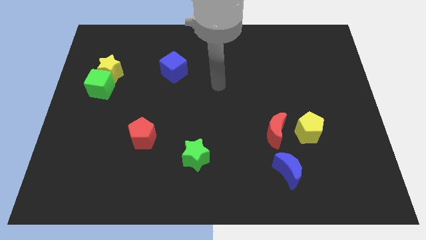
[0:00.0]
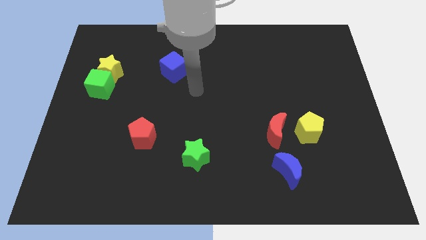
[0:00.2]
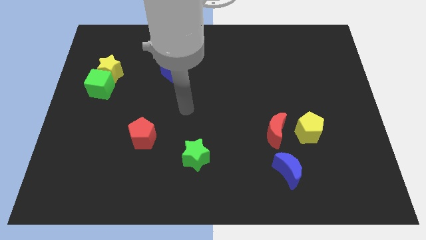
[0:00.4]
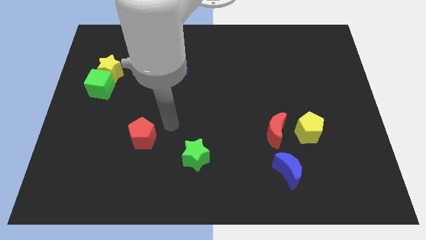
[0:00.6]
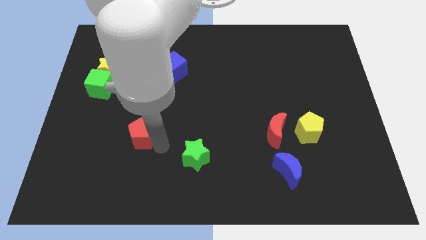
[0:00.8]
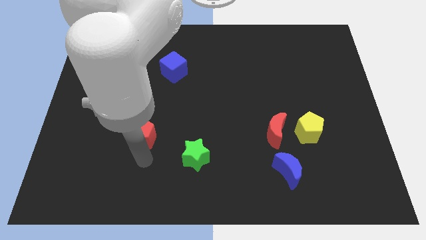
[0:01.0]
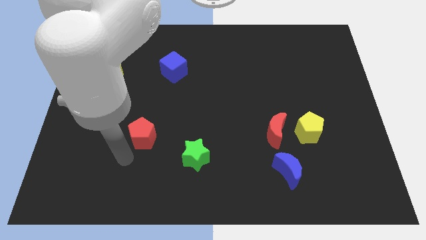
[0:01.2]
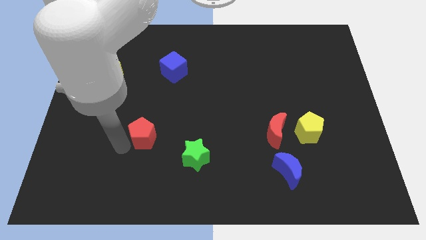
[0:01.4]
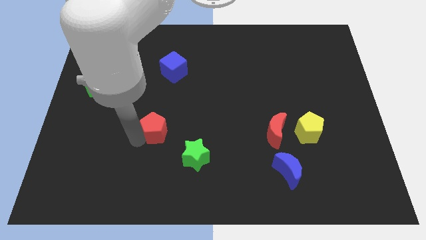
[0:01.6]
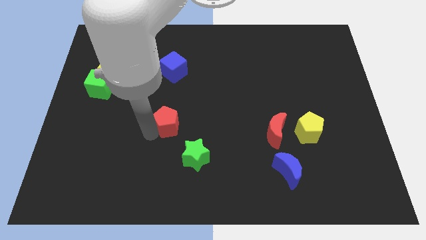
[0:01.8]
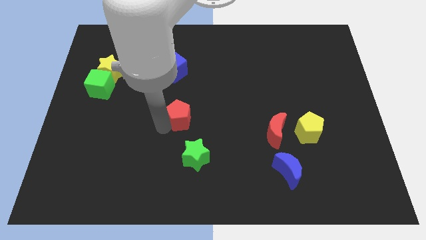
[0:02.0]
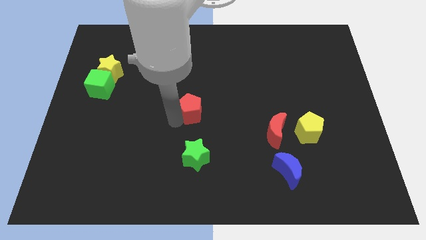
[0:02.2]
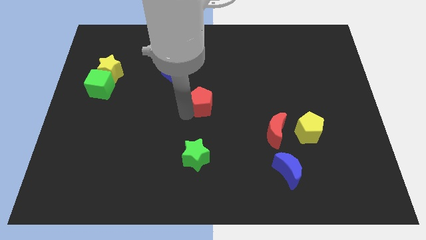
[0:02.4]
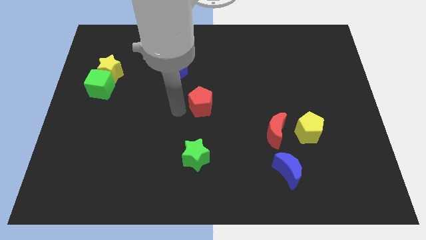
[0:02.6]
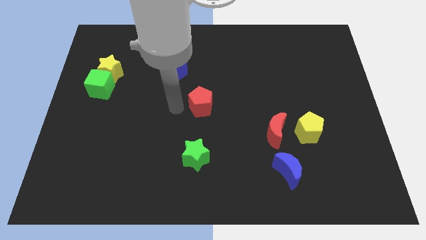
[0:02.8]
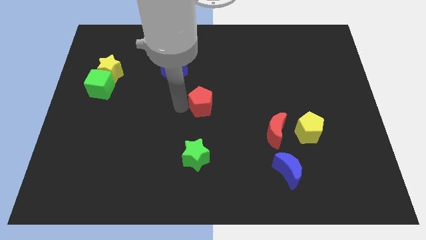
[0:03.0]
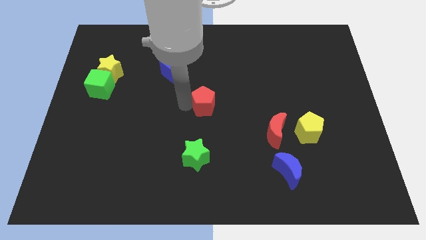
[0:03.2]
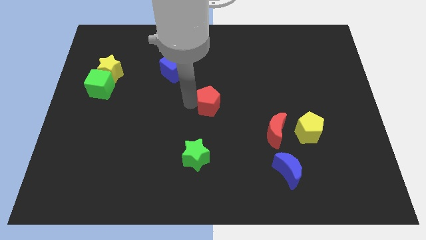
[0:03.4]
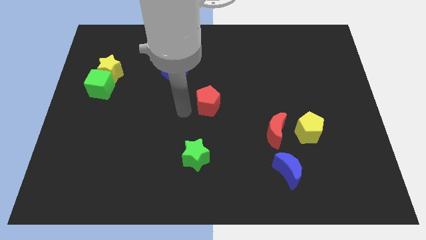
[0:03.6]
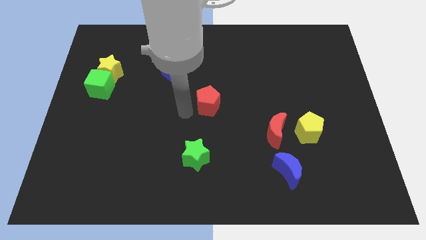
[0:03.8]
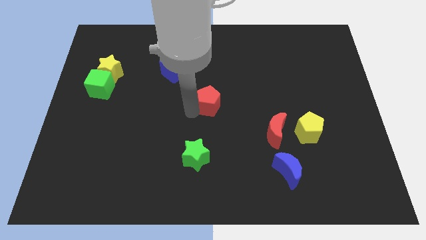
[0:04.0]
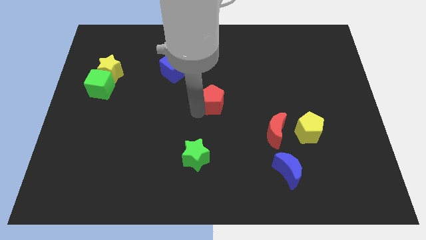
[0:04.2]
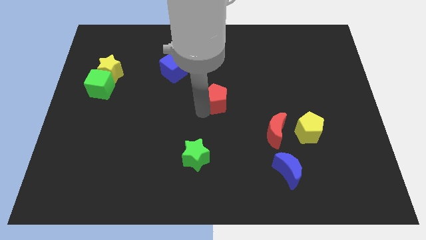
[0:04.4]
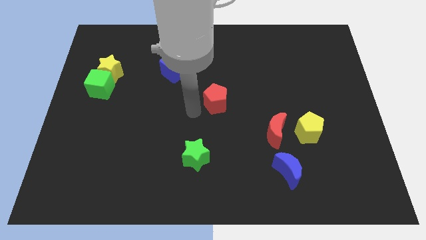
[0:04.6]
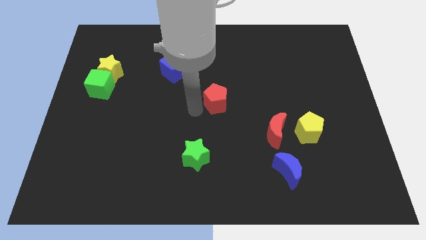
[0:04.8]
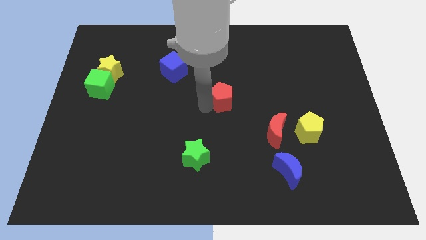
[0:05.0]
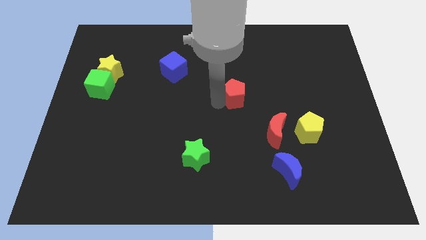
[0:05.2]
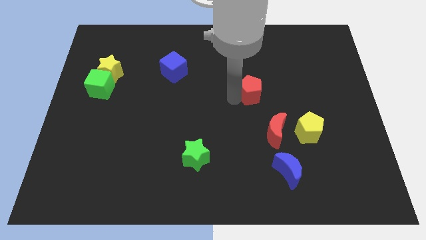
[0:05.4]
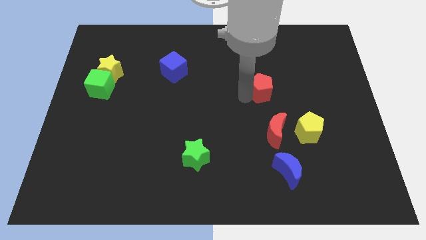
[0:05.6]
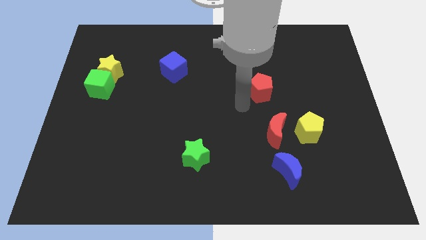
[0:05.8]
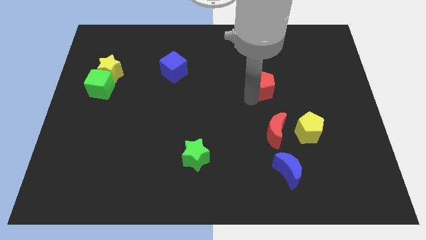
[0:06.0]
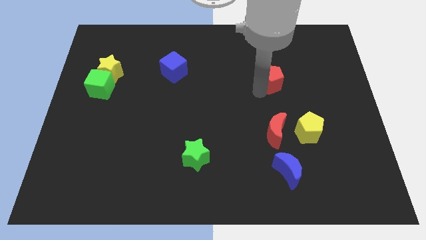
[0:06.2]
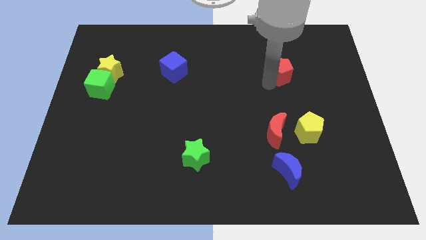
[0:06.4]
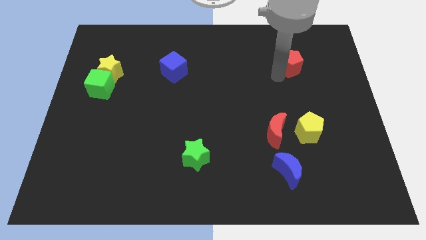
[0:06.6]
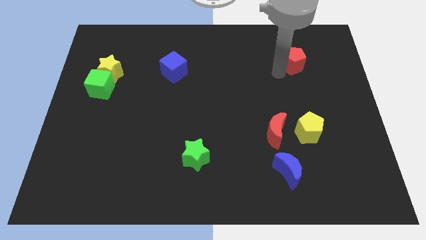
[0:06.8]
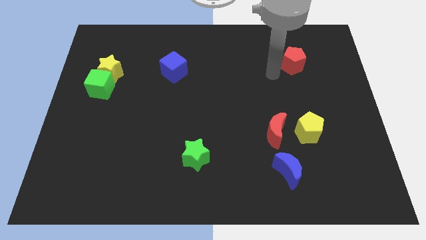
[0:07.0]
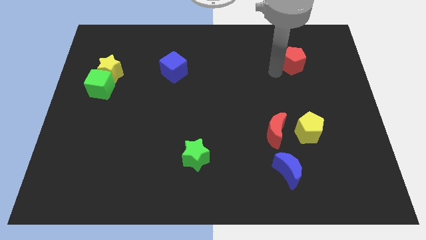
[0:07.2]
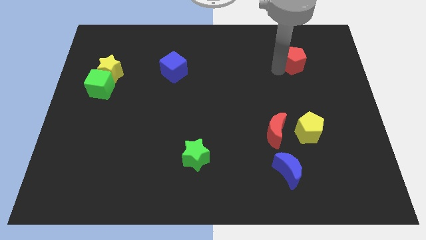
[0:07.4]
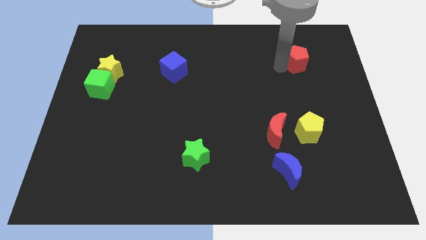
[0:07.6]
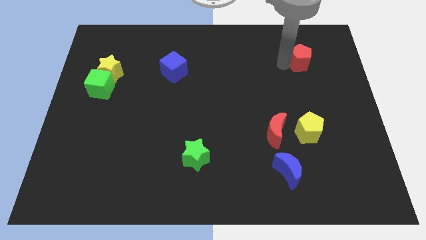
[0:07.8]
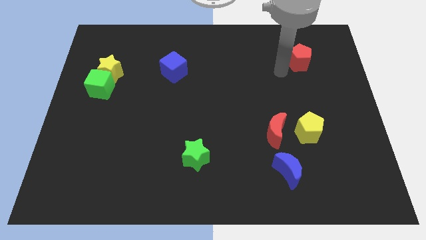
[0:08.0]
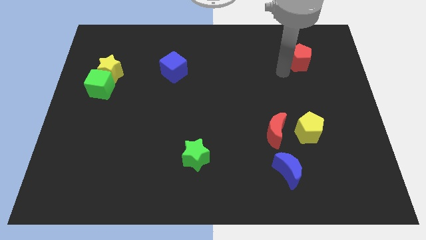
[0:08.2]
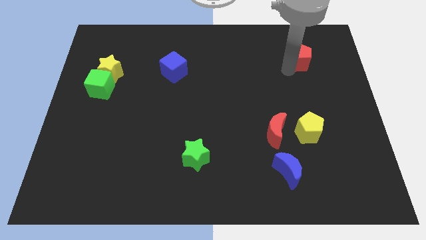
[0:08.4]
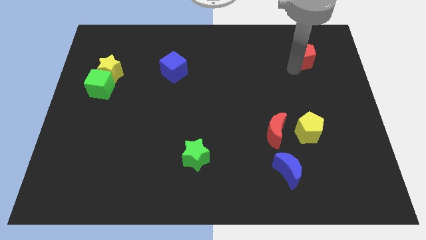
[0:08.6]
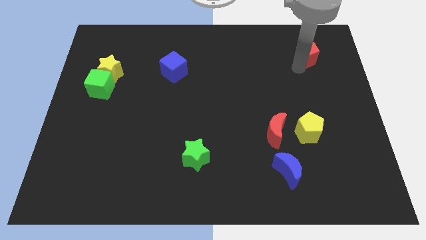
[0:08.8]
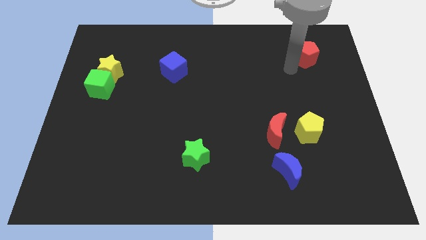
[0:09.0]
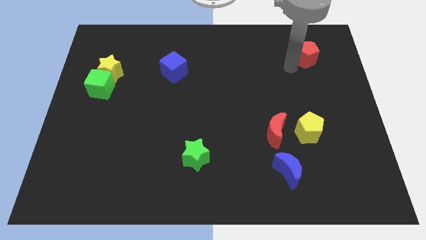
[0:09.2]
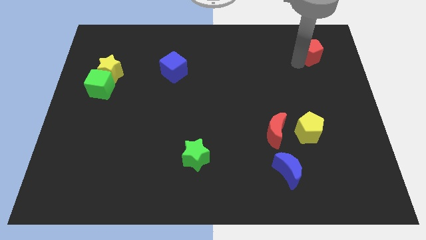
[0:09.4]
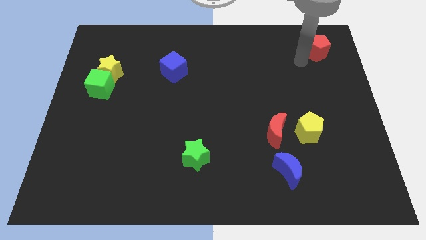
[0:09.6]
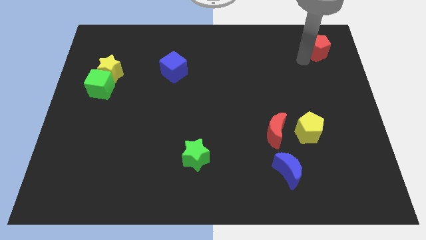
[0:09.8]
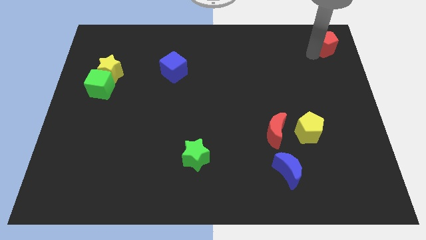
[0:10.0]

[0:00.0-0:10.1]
move the red pentagon to the upper right corner

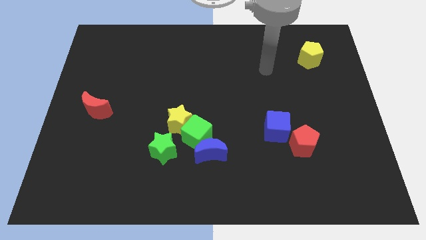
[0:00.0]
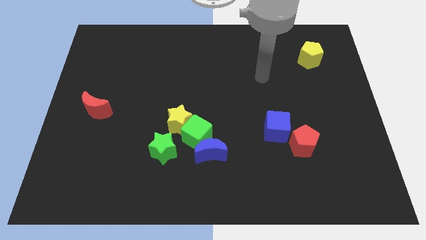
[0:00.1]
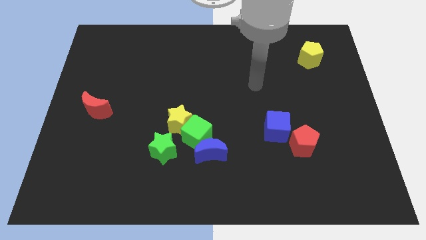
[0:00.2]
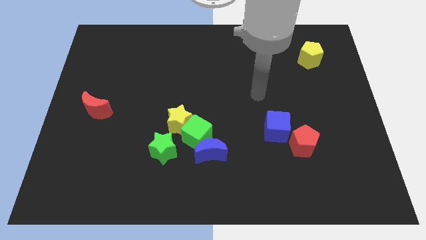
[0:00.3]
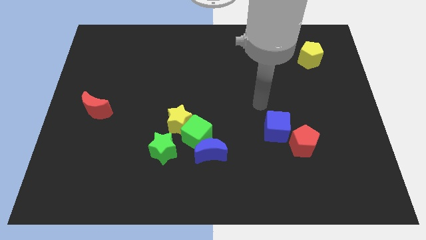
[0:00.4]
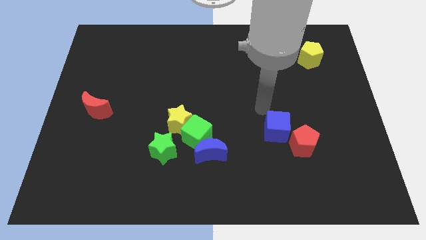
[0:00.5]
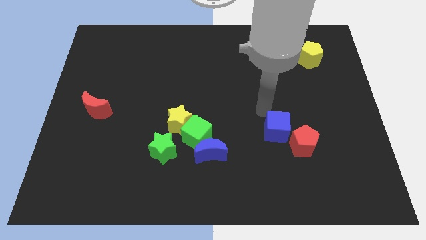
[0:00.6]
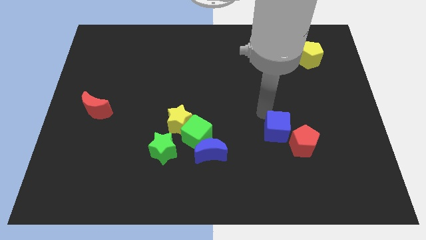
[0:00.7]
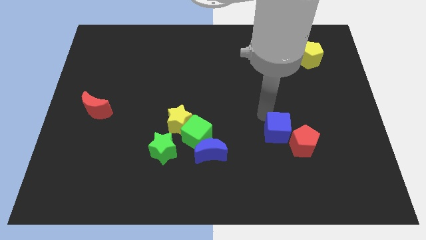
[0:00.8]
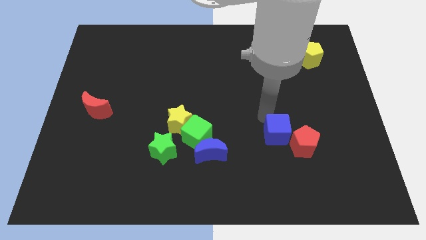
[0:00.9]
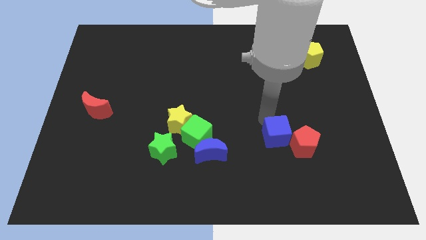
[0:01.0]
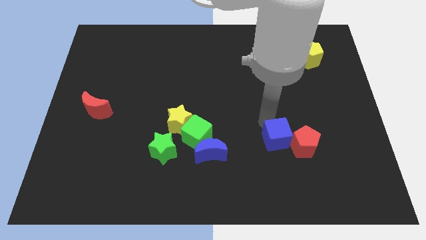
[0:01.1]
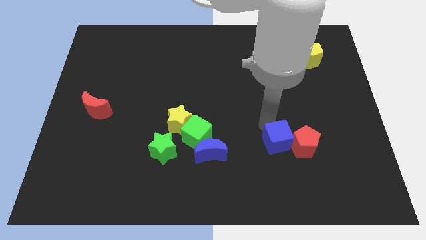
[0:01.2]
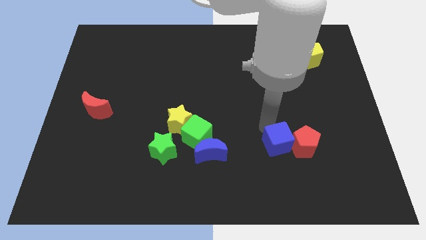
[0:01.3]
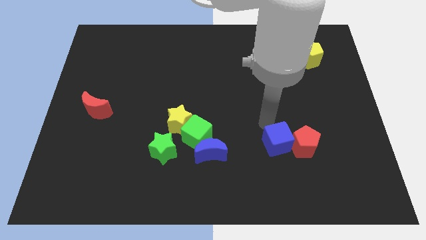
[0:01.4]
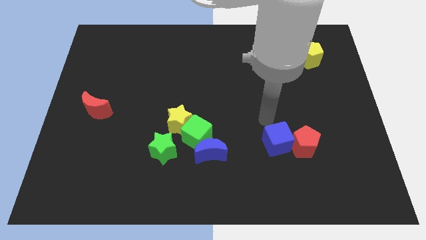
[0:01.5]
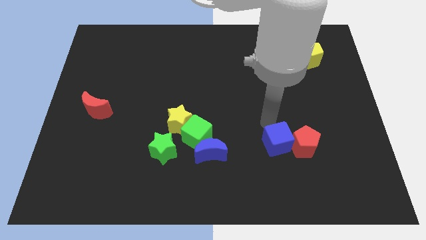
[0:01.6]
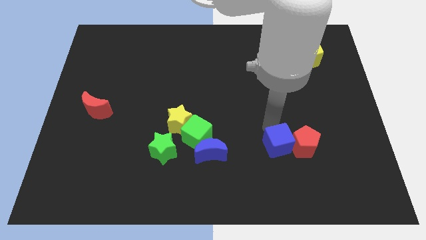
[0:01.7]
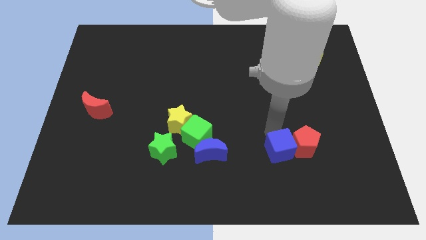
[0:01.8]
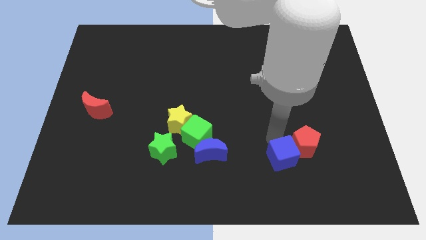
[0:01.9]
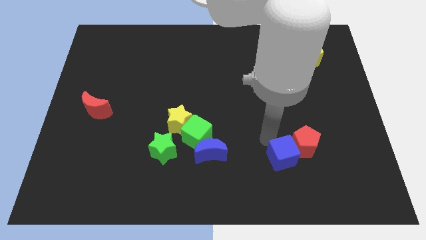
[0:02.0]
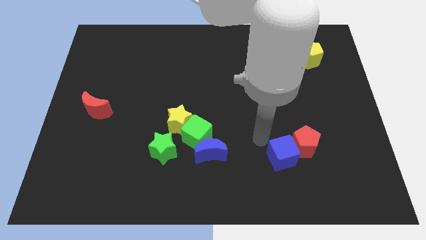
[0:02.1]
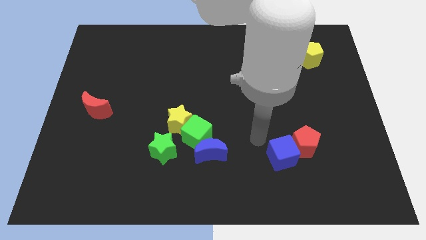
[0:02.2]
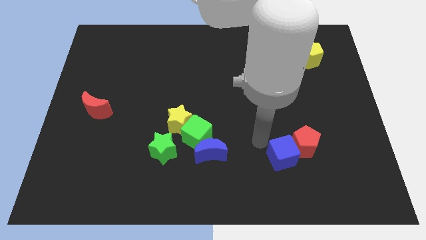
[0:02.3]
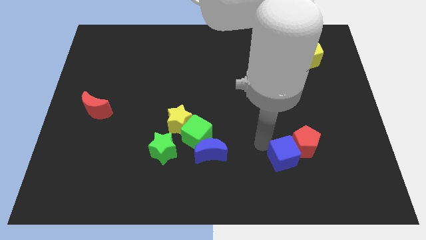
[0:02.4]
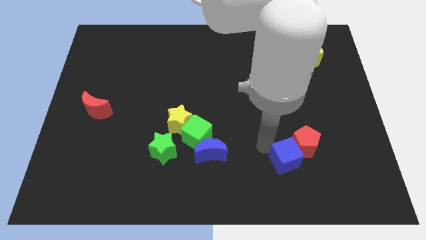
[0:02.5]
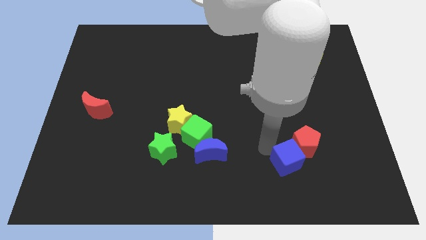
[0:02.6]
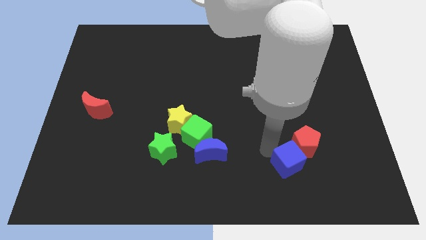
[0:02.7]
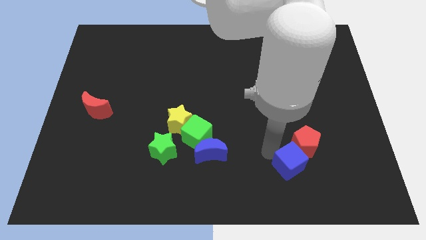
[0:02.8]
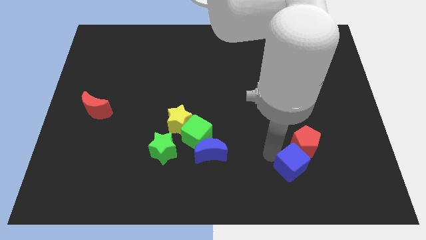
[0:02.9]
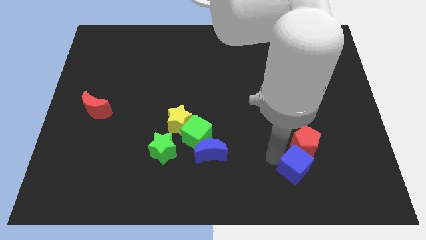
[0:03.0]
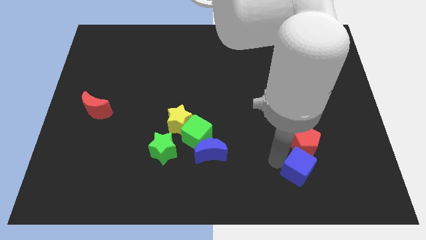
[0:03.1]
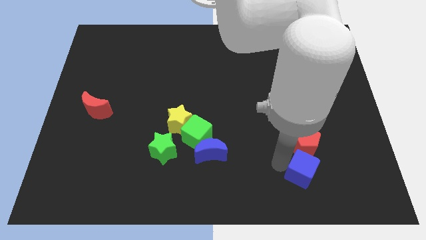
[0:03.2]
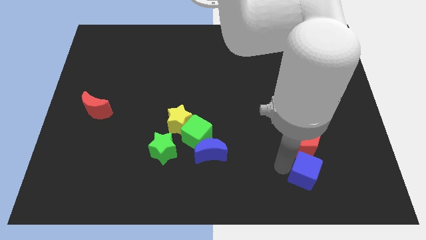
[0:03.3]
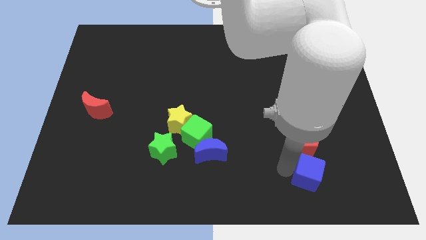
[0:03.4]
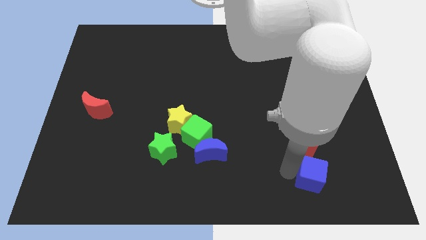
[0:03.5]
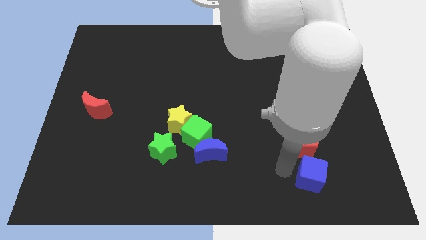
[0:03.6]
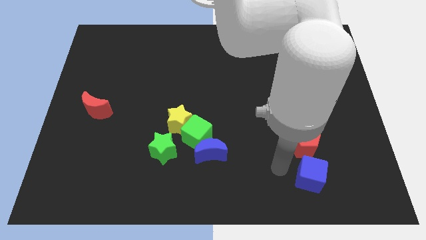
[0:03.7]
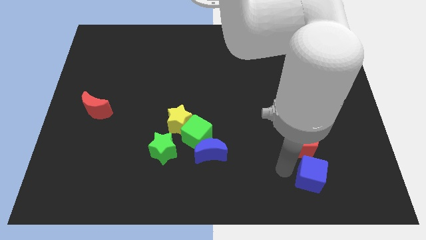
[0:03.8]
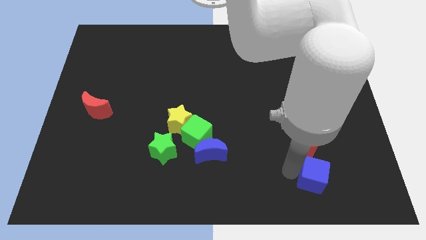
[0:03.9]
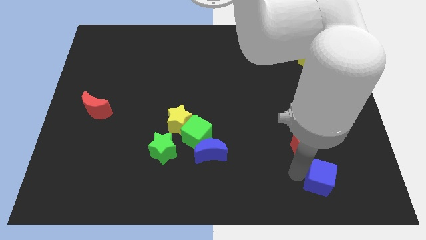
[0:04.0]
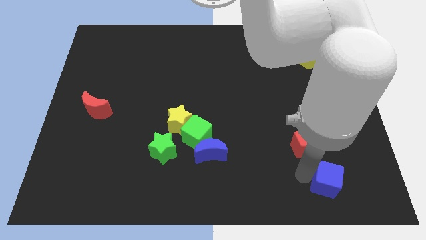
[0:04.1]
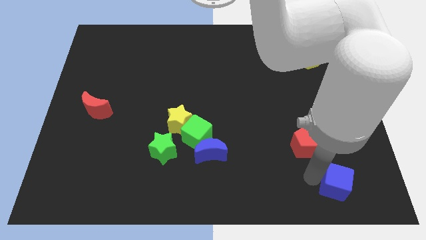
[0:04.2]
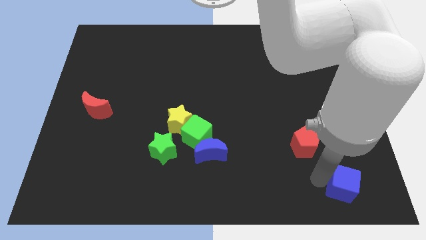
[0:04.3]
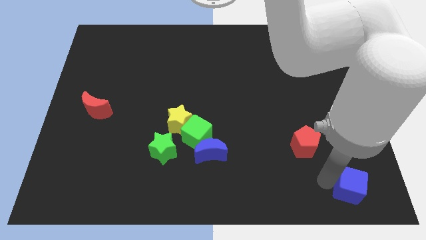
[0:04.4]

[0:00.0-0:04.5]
move the blue cube to the bottom right corner
